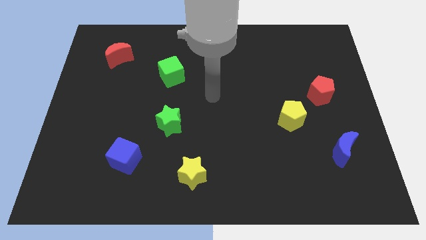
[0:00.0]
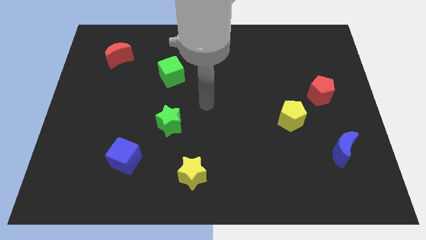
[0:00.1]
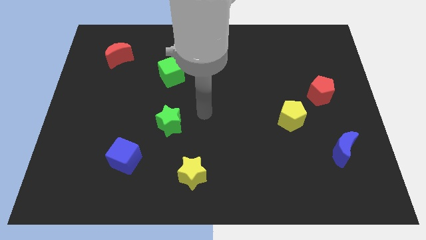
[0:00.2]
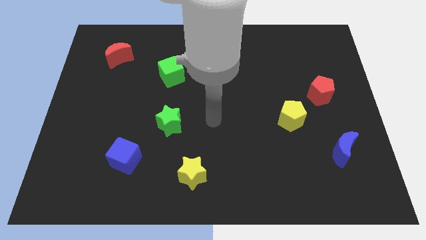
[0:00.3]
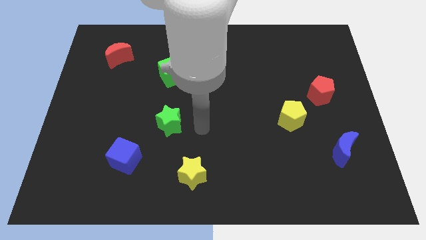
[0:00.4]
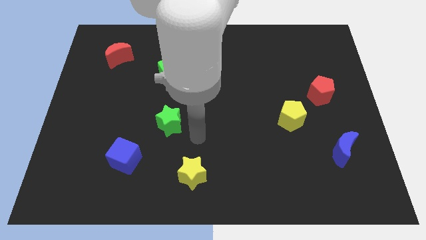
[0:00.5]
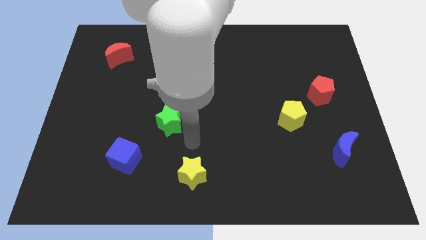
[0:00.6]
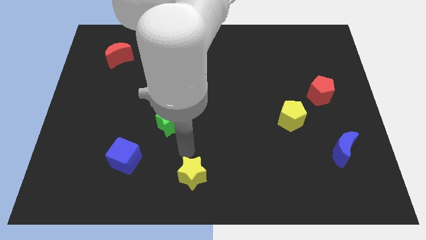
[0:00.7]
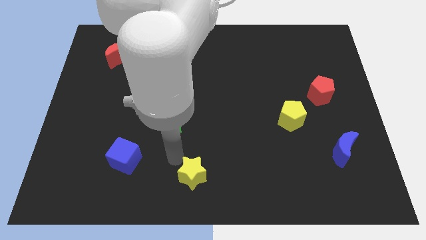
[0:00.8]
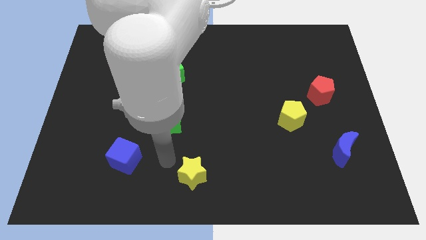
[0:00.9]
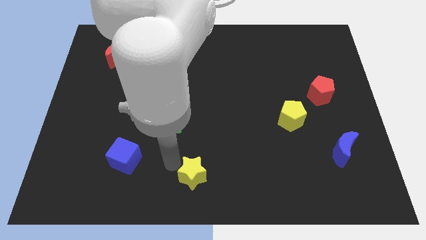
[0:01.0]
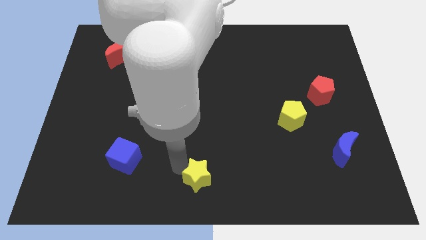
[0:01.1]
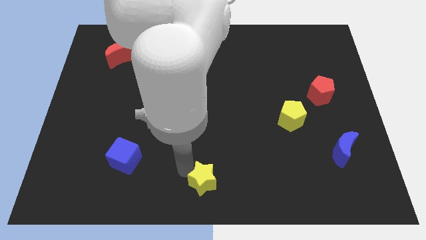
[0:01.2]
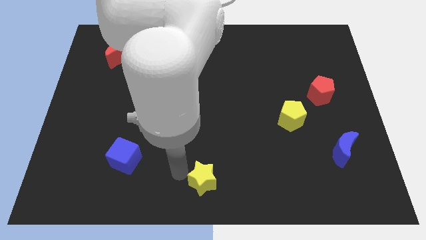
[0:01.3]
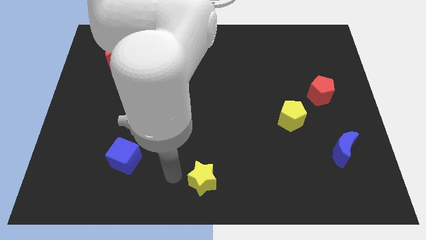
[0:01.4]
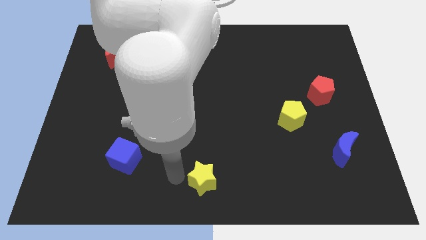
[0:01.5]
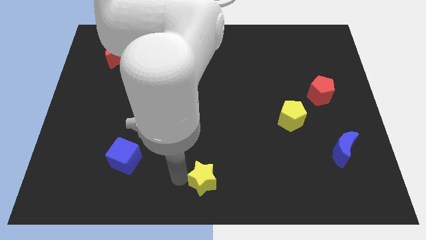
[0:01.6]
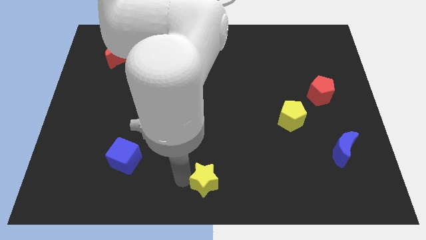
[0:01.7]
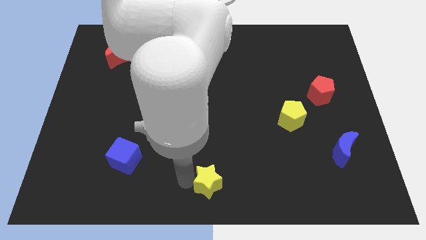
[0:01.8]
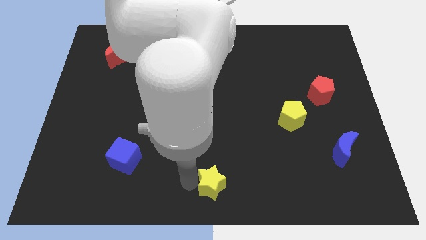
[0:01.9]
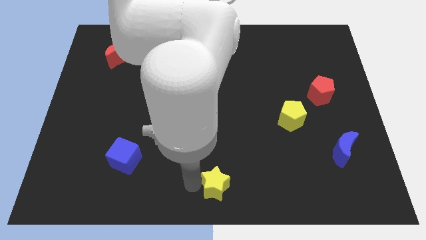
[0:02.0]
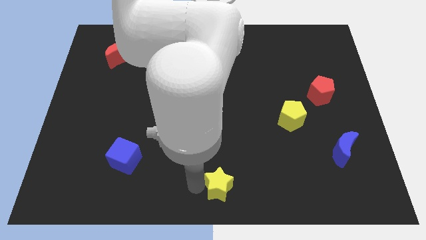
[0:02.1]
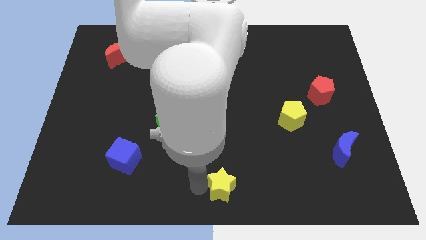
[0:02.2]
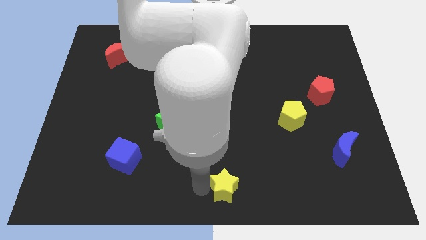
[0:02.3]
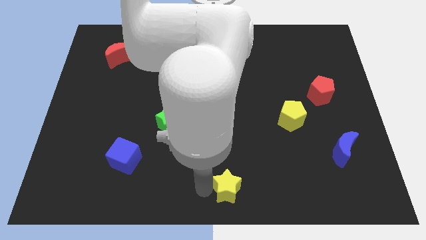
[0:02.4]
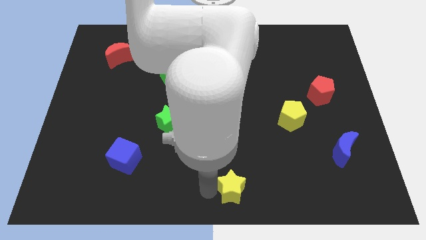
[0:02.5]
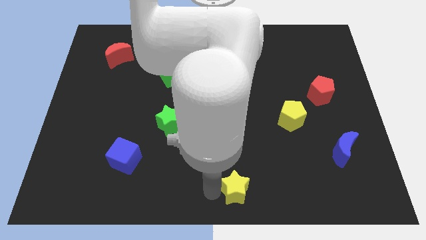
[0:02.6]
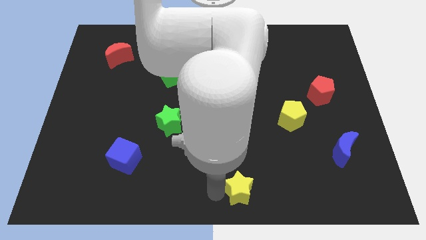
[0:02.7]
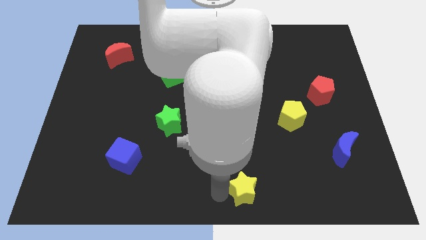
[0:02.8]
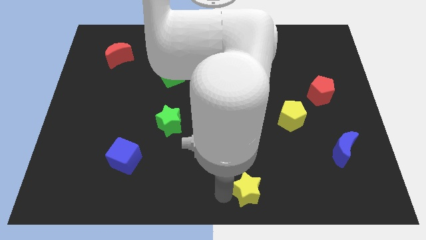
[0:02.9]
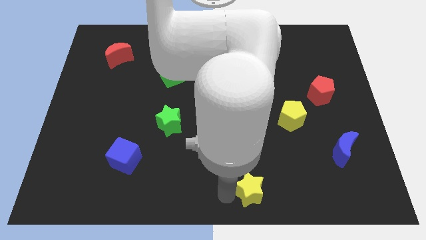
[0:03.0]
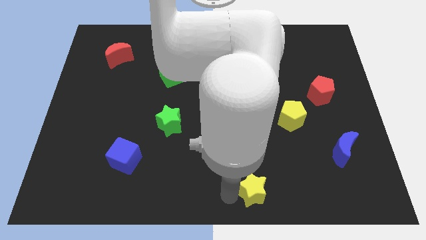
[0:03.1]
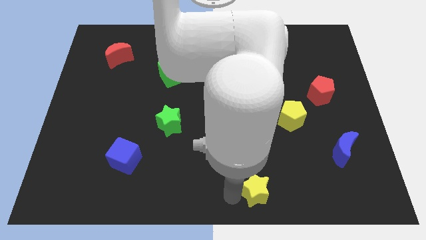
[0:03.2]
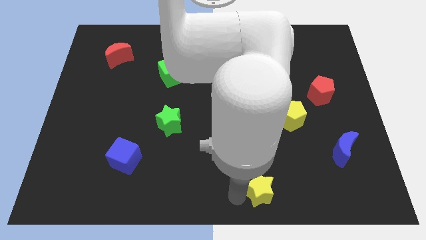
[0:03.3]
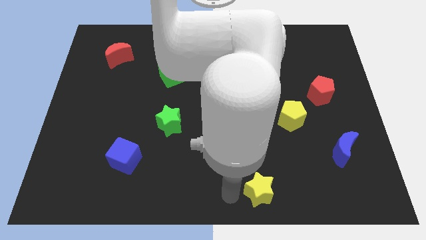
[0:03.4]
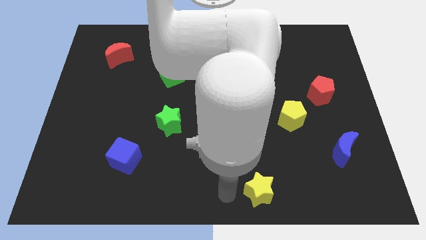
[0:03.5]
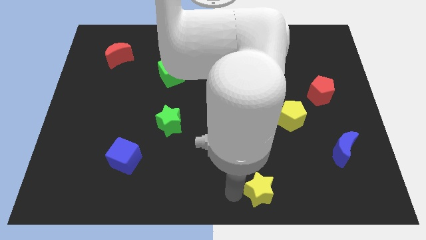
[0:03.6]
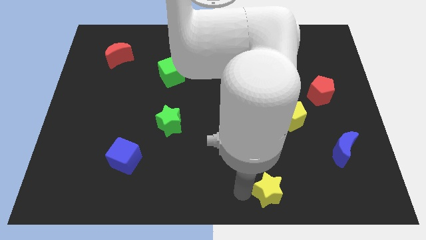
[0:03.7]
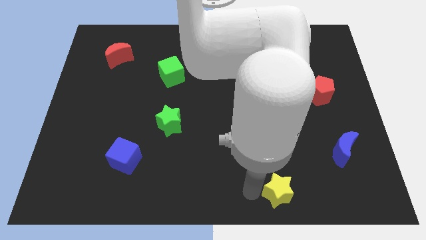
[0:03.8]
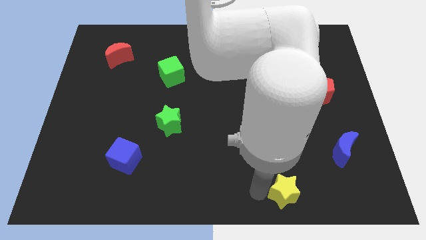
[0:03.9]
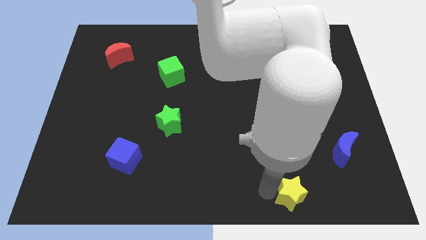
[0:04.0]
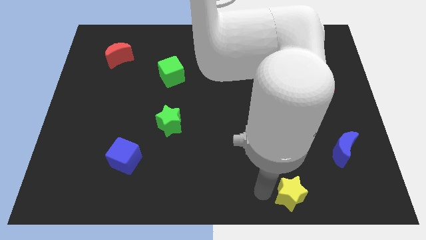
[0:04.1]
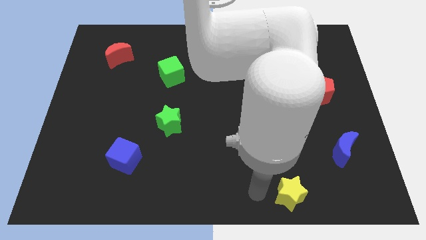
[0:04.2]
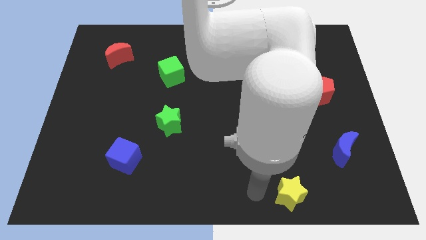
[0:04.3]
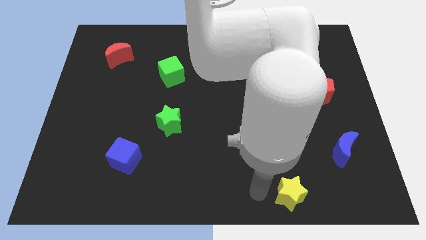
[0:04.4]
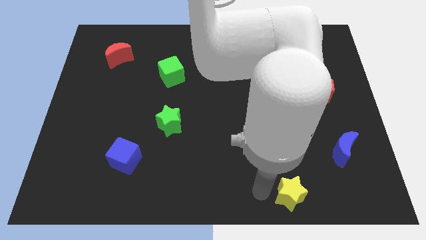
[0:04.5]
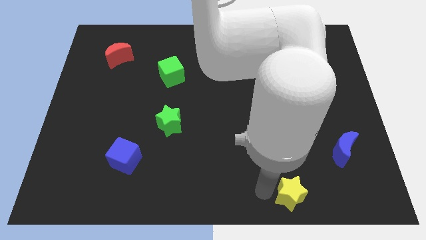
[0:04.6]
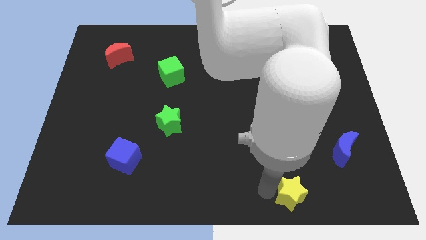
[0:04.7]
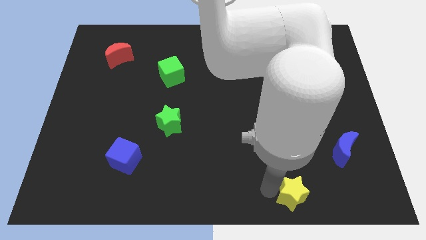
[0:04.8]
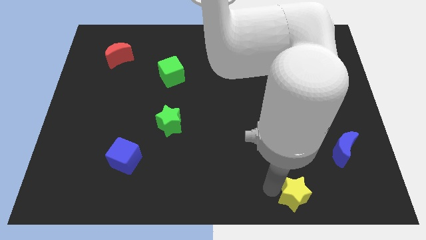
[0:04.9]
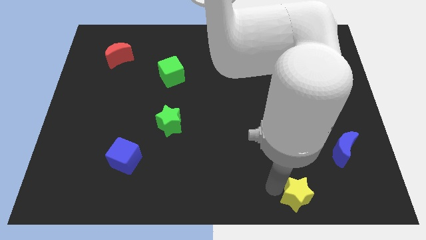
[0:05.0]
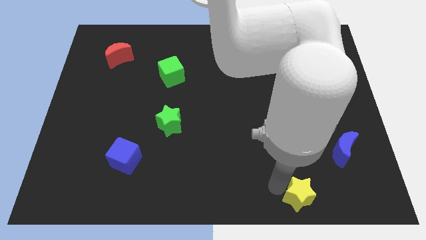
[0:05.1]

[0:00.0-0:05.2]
slide the yellow star right

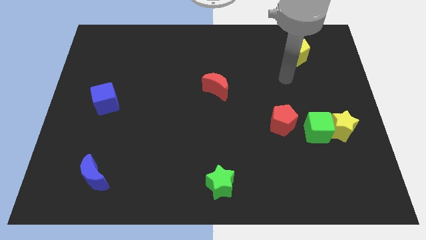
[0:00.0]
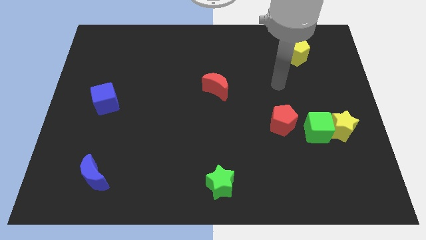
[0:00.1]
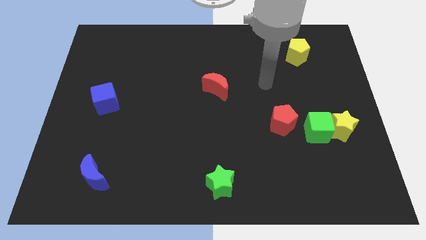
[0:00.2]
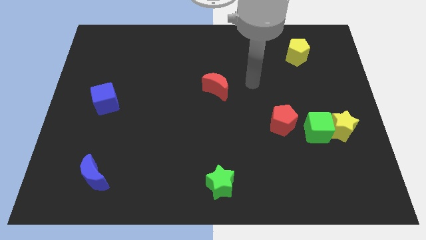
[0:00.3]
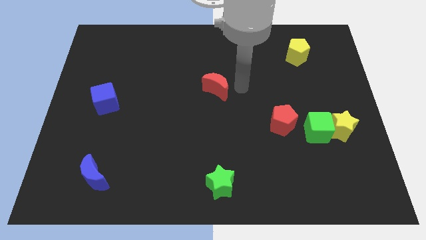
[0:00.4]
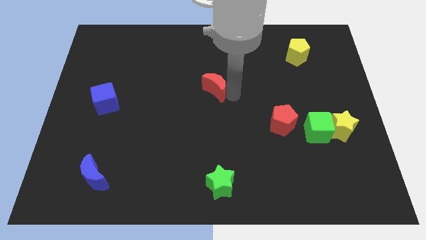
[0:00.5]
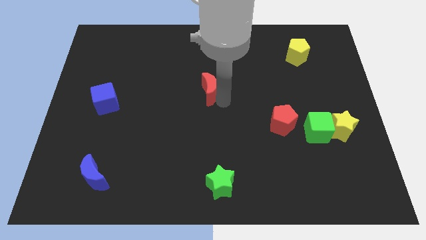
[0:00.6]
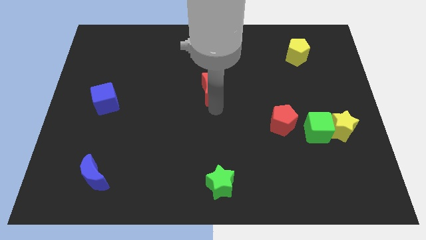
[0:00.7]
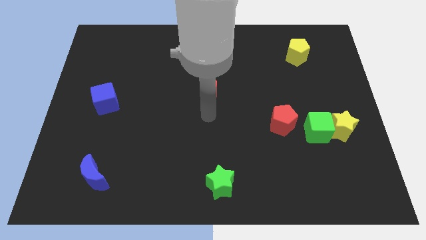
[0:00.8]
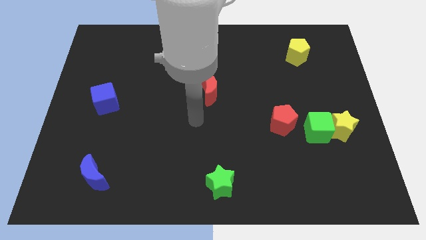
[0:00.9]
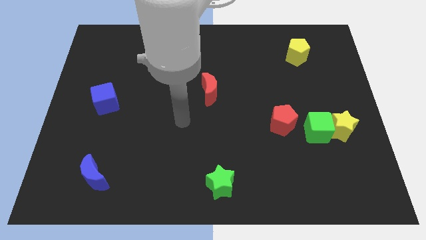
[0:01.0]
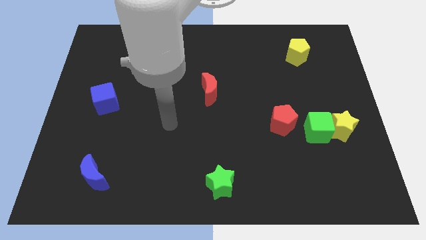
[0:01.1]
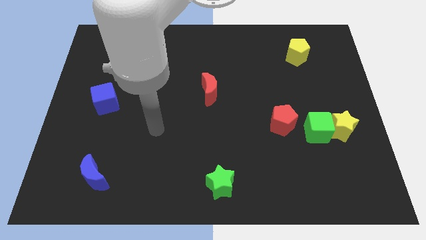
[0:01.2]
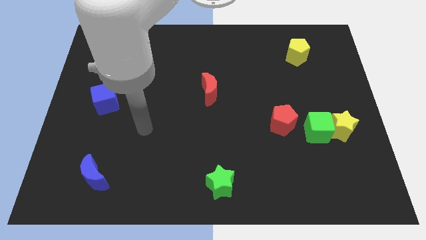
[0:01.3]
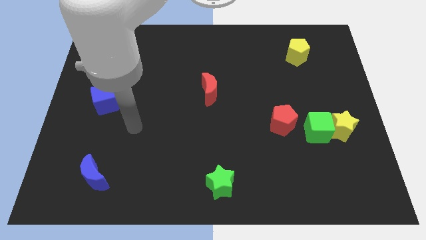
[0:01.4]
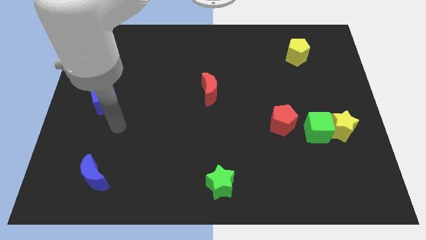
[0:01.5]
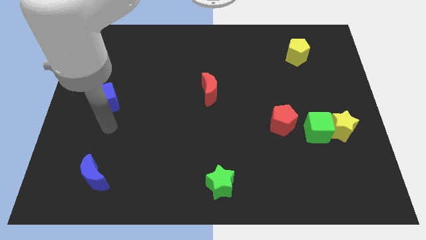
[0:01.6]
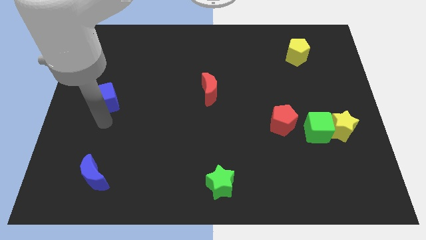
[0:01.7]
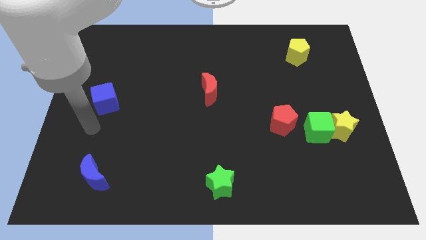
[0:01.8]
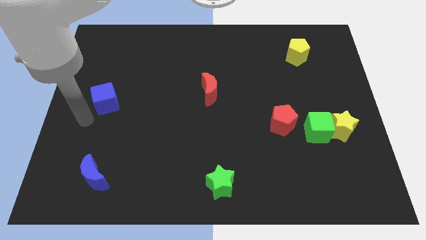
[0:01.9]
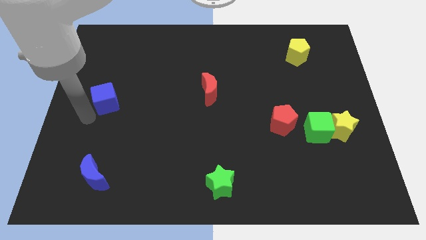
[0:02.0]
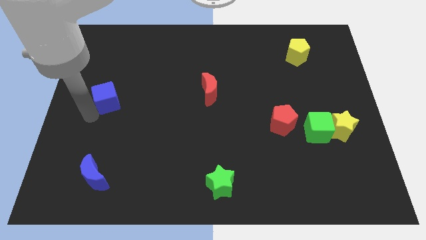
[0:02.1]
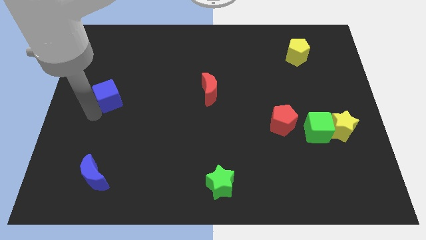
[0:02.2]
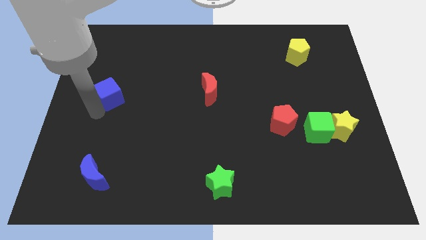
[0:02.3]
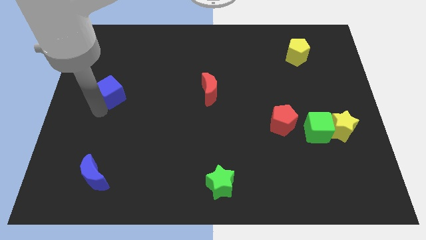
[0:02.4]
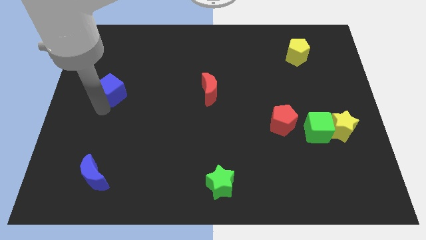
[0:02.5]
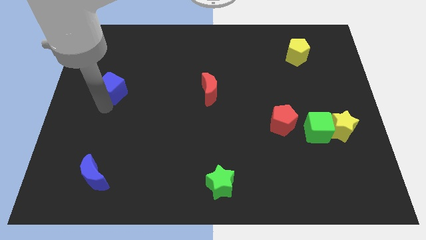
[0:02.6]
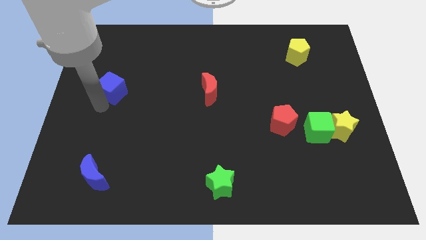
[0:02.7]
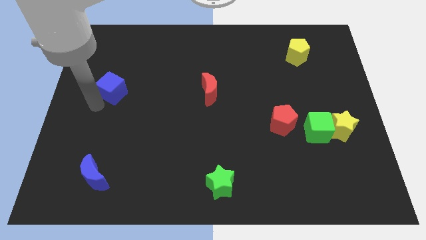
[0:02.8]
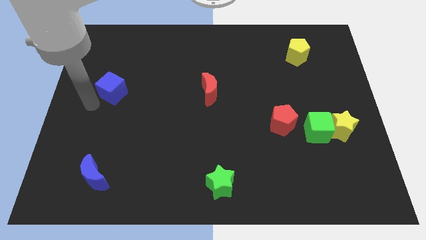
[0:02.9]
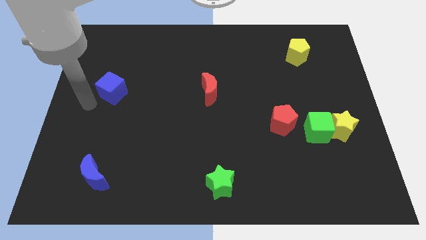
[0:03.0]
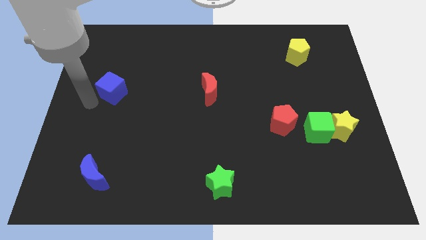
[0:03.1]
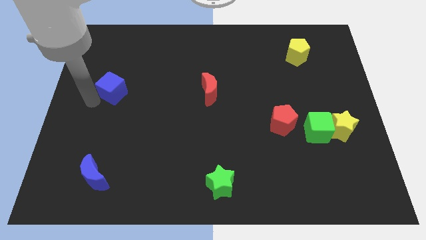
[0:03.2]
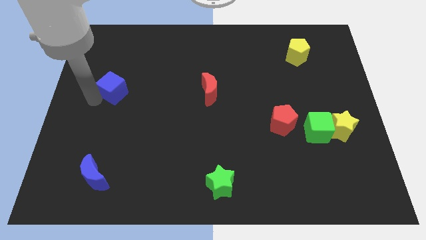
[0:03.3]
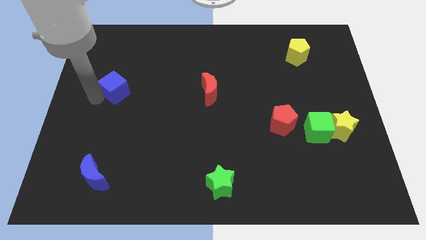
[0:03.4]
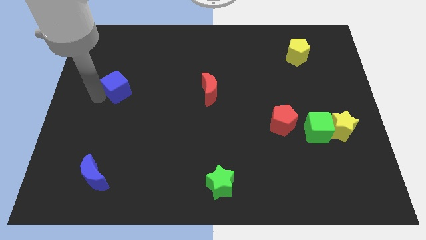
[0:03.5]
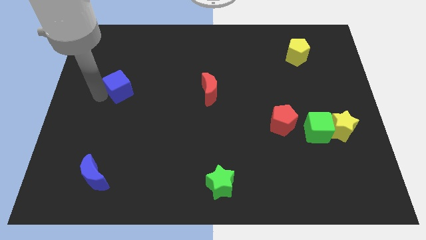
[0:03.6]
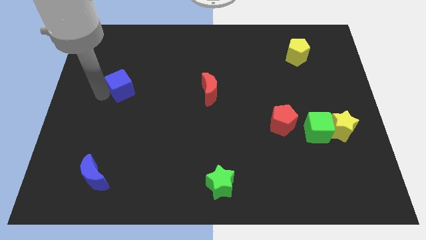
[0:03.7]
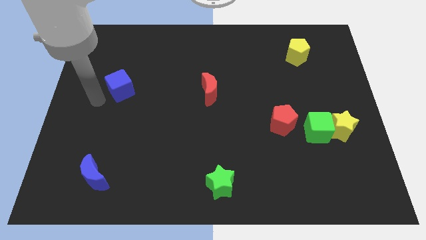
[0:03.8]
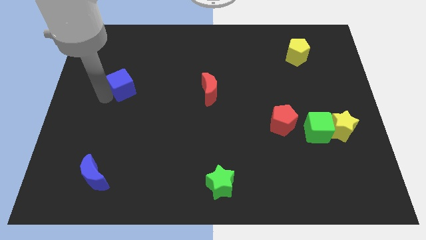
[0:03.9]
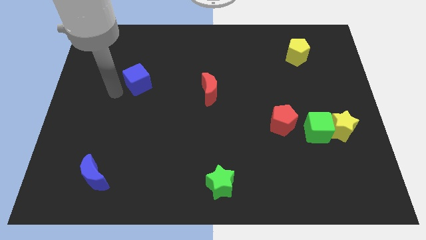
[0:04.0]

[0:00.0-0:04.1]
move the blue cube a bit upwards and to the right diagonally
